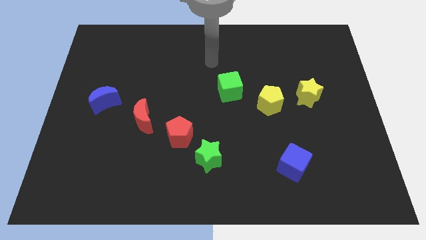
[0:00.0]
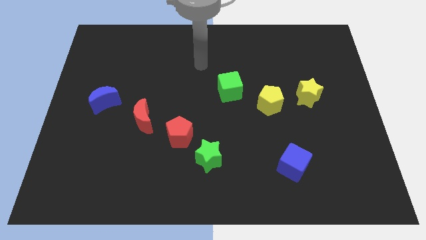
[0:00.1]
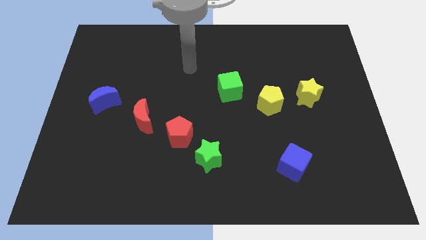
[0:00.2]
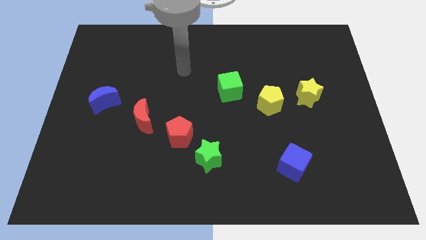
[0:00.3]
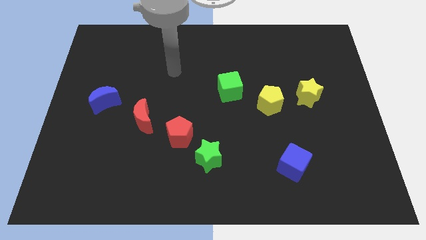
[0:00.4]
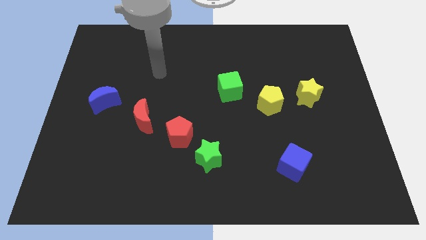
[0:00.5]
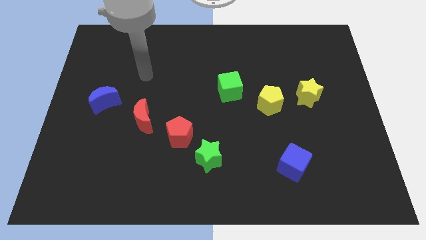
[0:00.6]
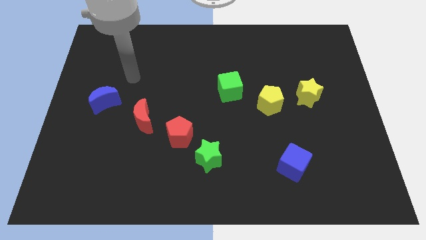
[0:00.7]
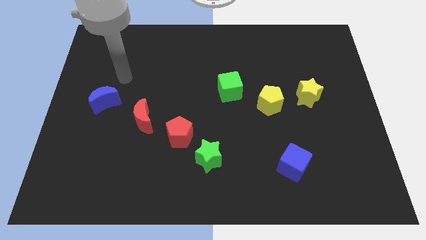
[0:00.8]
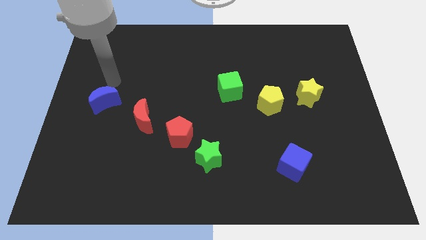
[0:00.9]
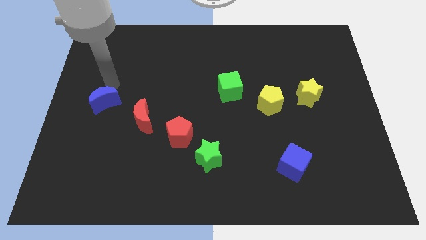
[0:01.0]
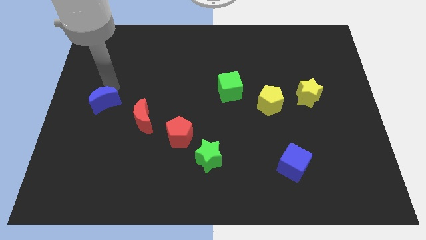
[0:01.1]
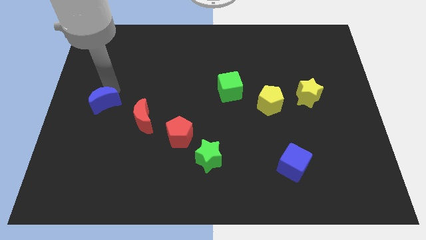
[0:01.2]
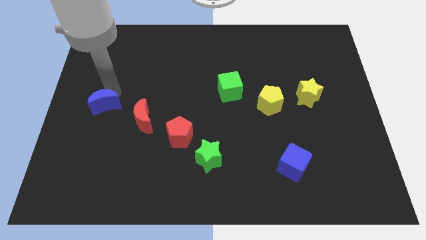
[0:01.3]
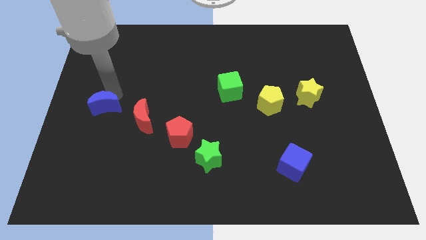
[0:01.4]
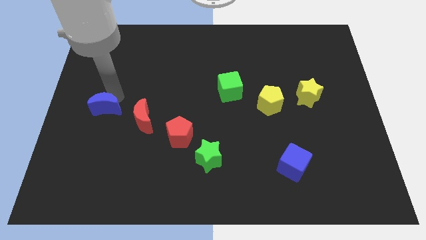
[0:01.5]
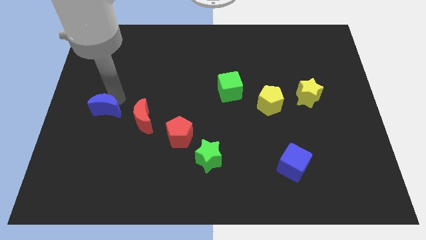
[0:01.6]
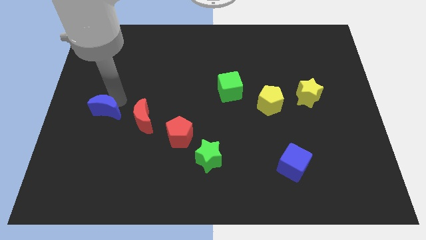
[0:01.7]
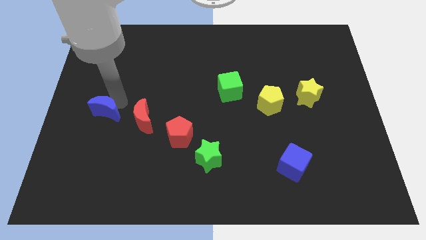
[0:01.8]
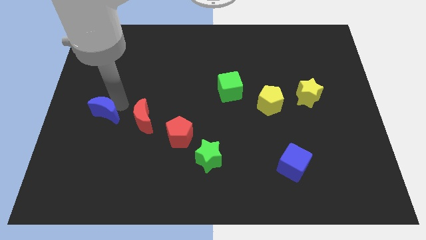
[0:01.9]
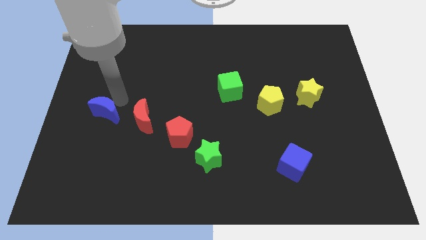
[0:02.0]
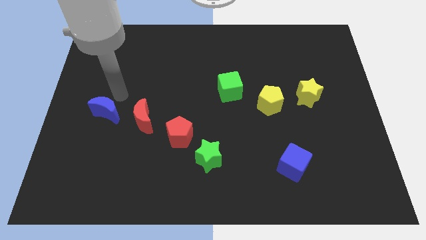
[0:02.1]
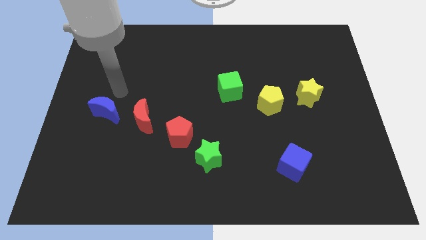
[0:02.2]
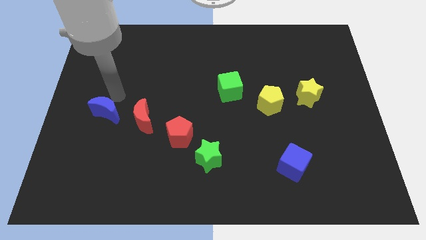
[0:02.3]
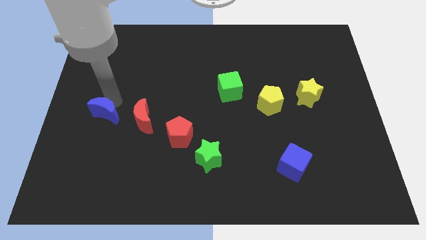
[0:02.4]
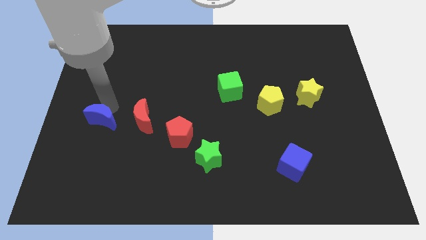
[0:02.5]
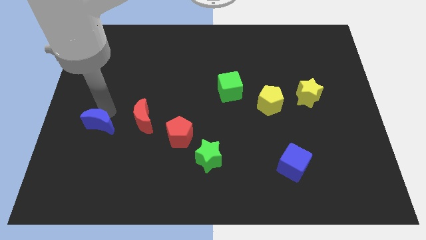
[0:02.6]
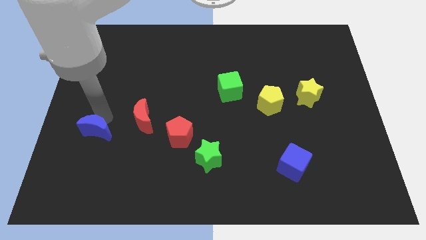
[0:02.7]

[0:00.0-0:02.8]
move the blue moon downwards slightly

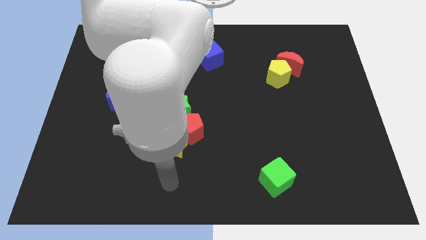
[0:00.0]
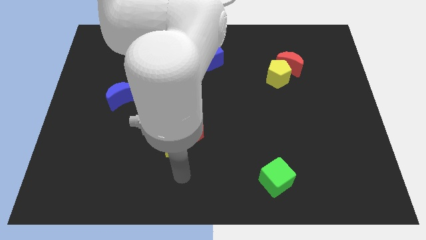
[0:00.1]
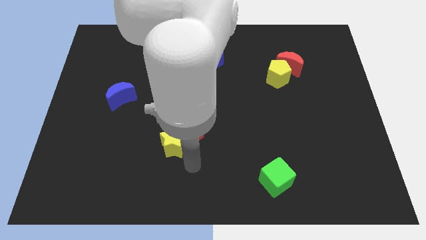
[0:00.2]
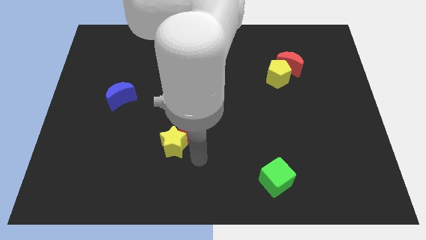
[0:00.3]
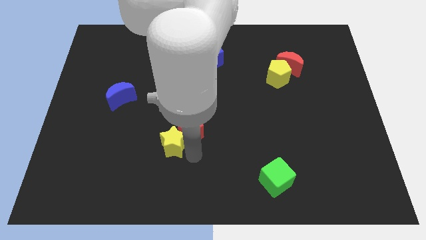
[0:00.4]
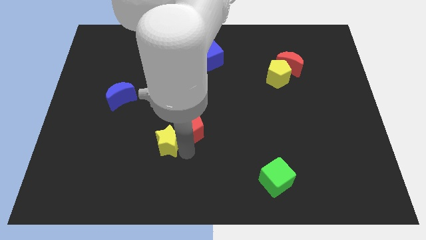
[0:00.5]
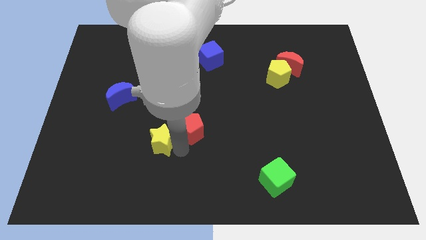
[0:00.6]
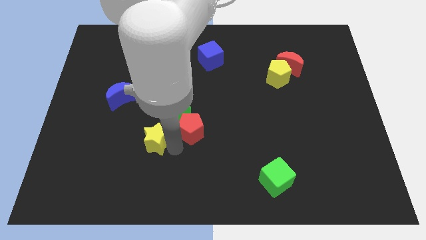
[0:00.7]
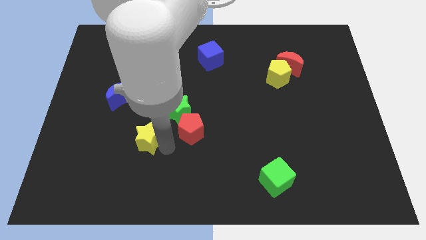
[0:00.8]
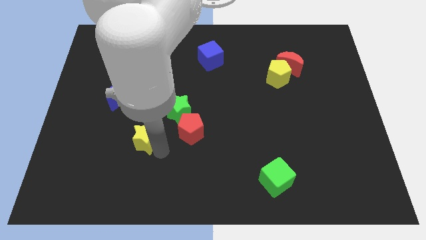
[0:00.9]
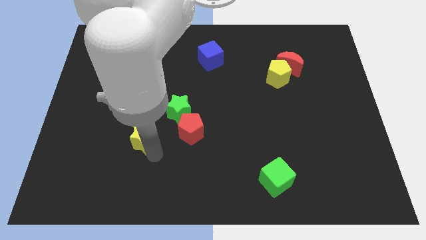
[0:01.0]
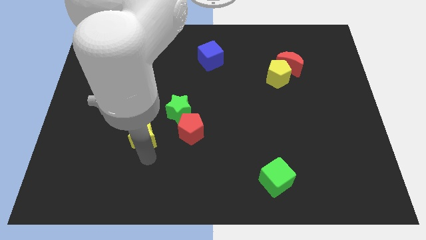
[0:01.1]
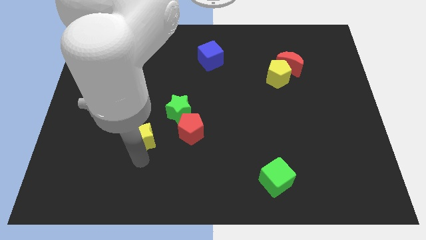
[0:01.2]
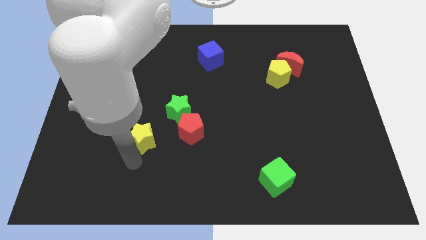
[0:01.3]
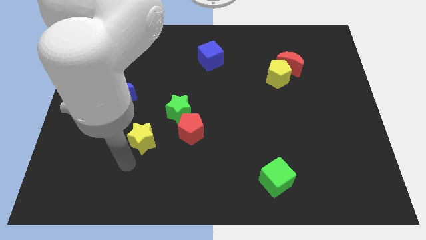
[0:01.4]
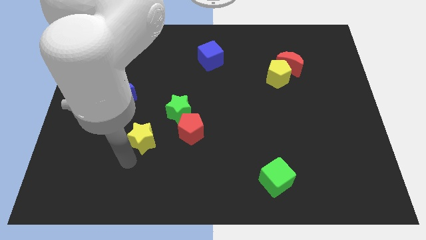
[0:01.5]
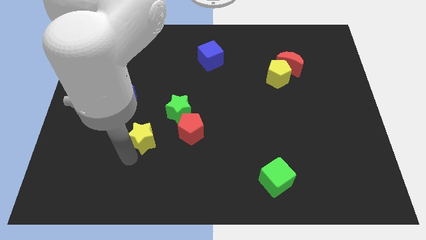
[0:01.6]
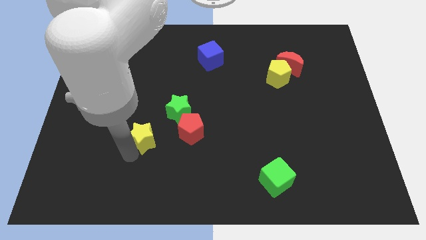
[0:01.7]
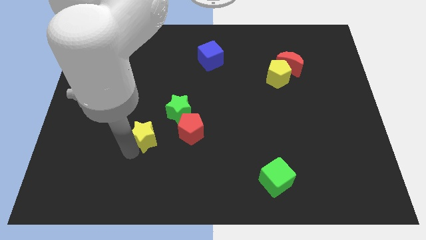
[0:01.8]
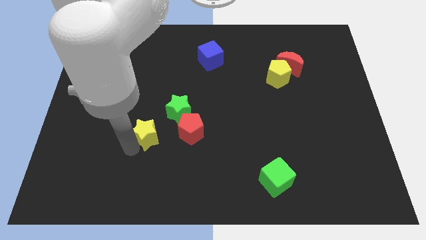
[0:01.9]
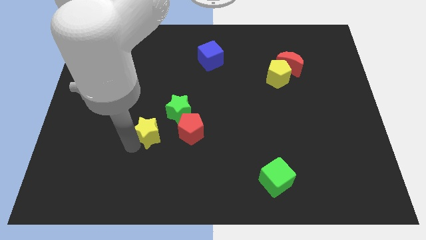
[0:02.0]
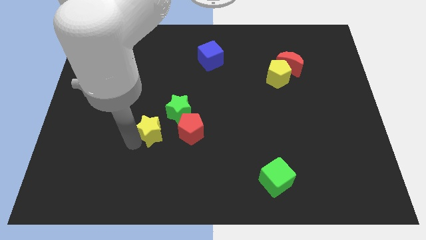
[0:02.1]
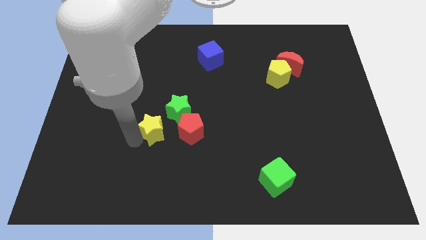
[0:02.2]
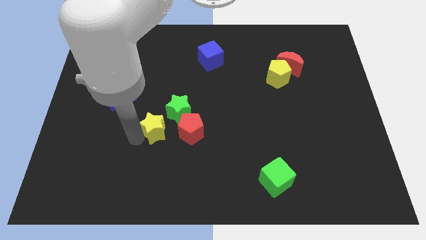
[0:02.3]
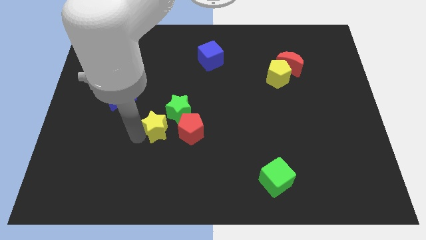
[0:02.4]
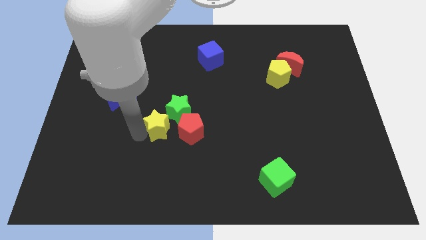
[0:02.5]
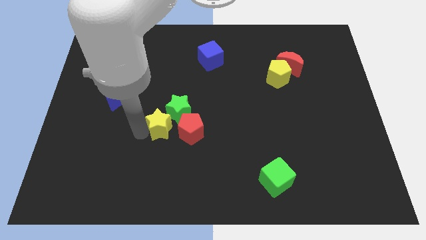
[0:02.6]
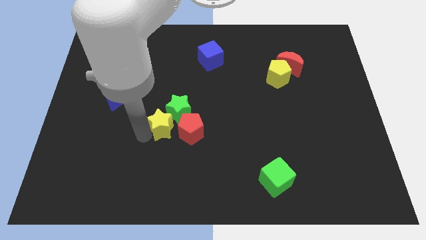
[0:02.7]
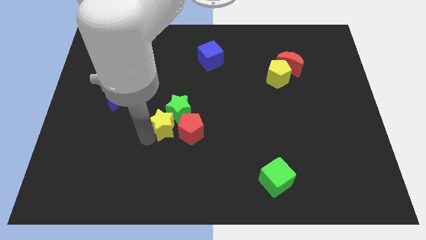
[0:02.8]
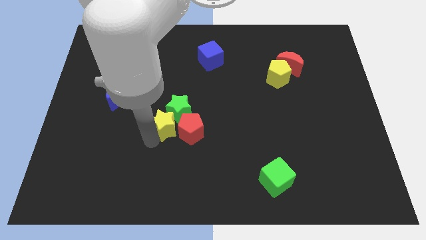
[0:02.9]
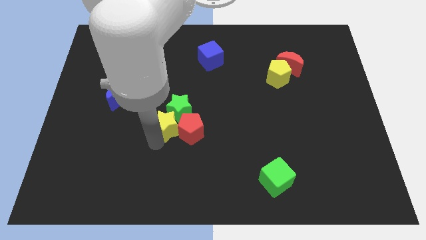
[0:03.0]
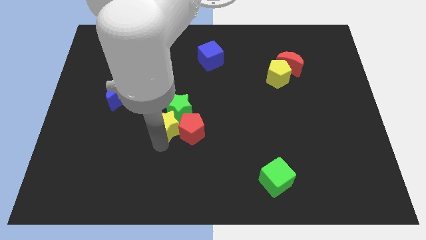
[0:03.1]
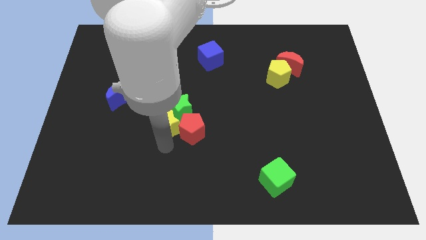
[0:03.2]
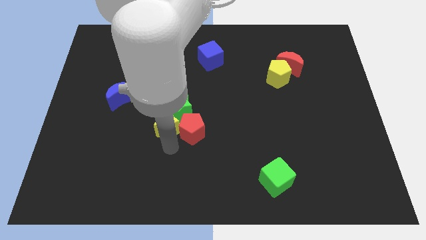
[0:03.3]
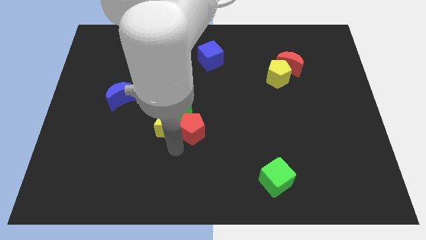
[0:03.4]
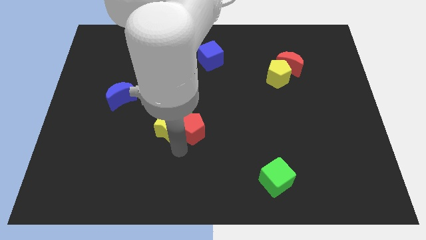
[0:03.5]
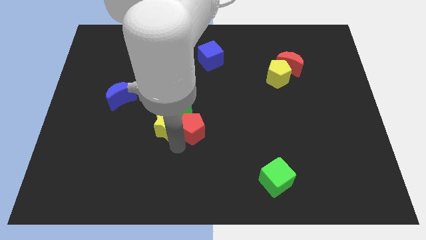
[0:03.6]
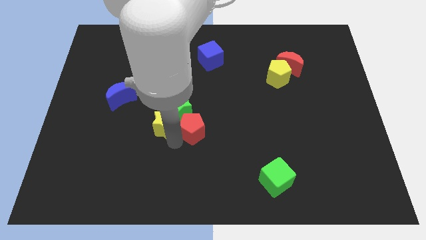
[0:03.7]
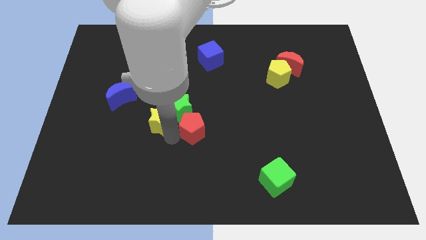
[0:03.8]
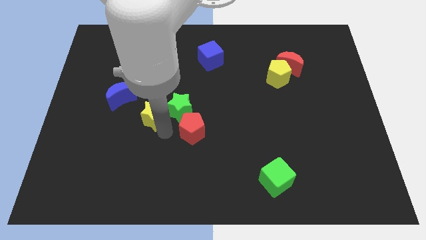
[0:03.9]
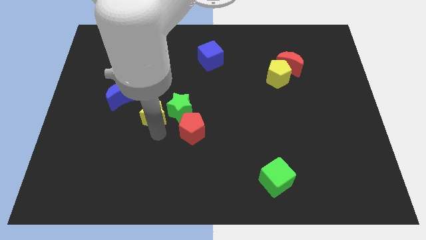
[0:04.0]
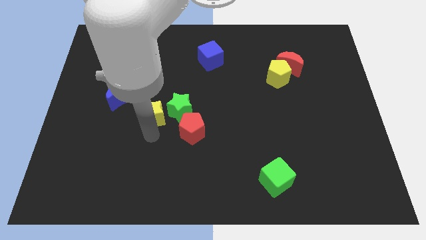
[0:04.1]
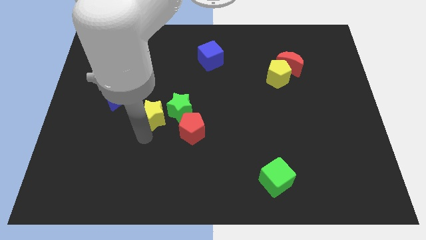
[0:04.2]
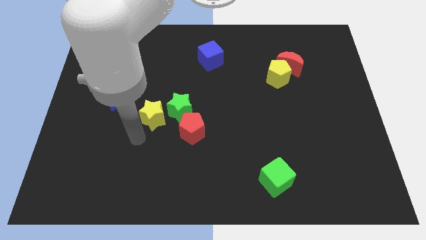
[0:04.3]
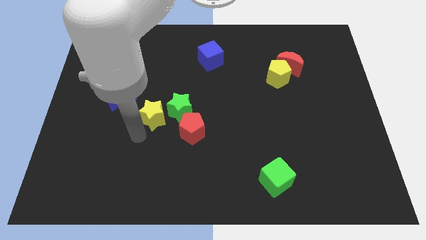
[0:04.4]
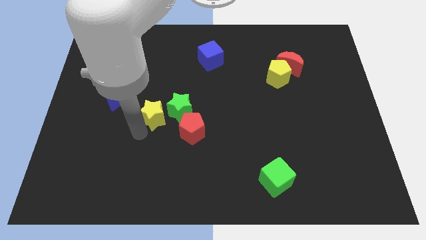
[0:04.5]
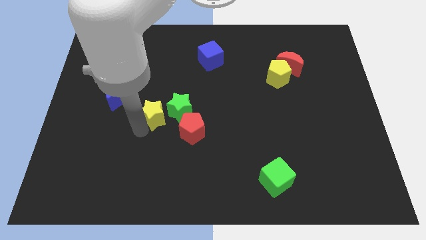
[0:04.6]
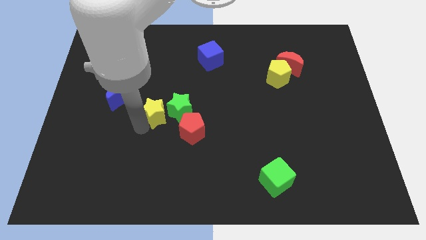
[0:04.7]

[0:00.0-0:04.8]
move the yellow star upwards somewhat
